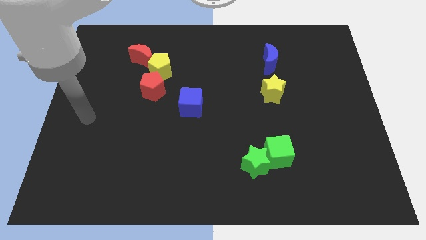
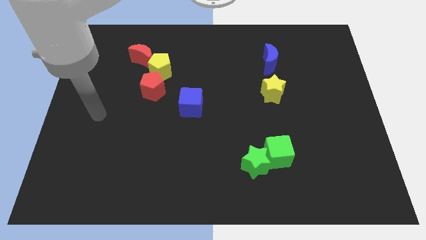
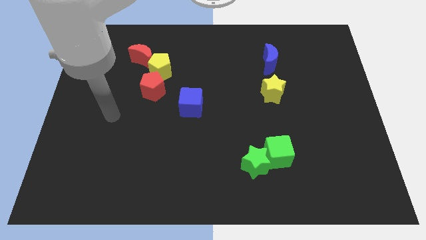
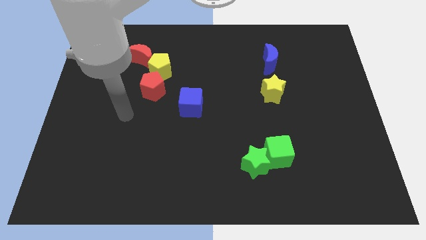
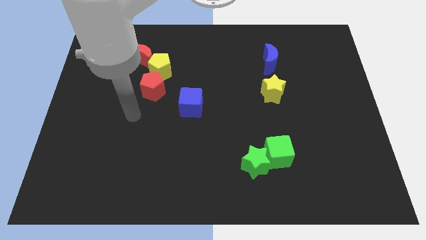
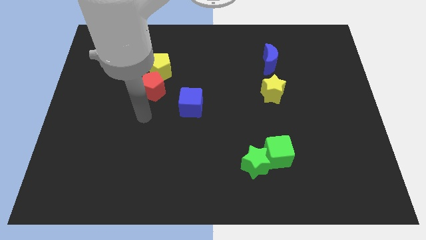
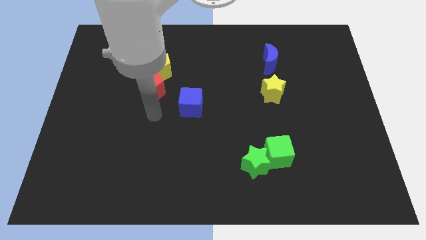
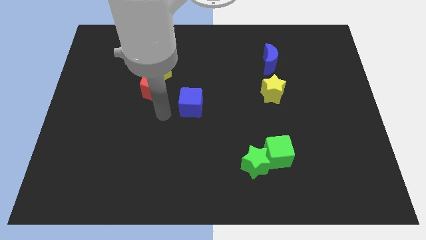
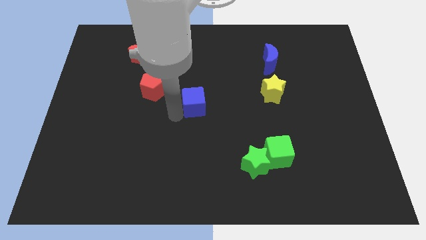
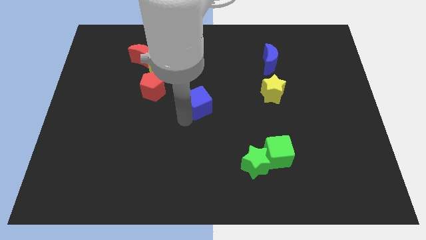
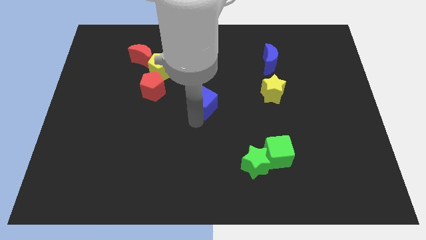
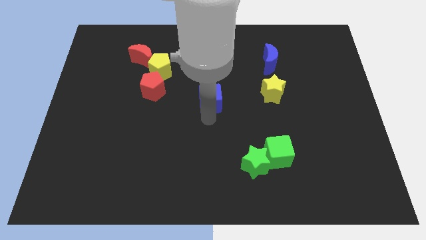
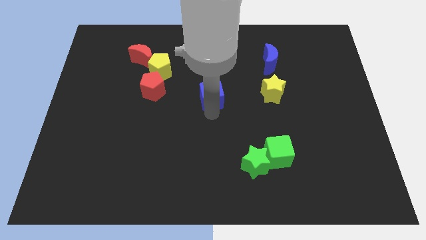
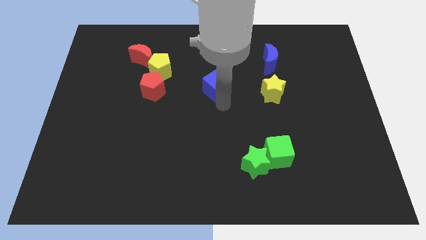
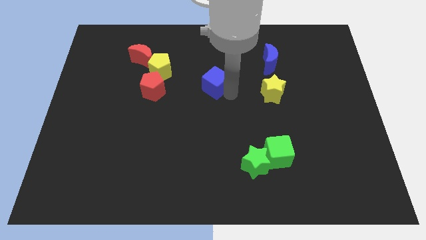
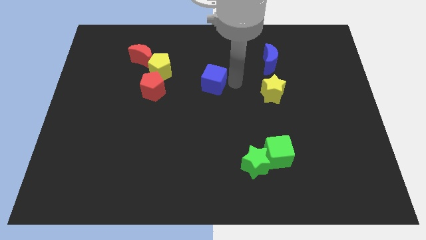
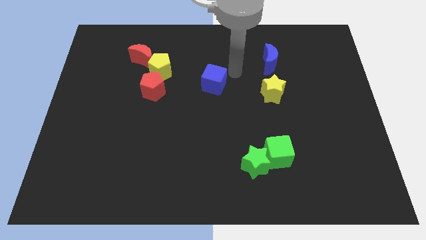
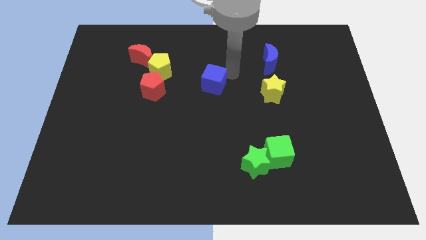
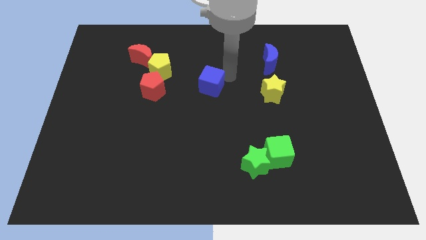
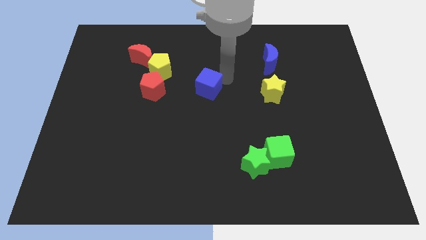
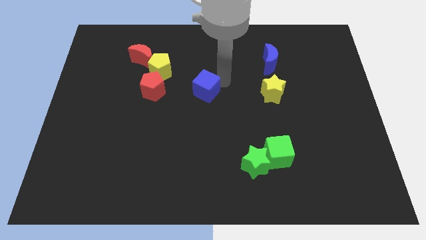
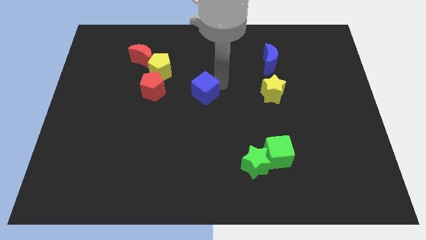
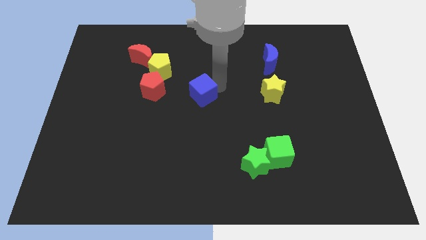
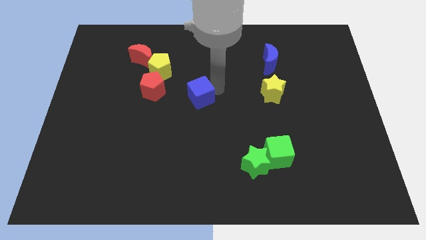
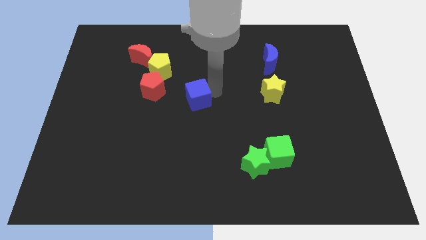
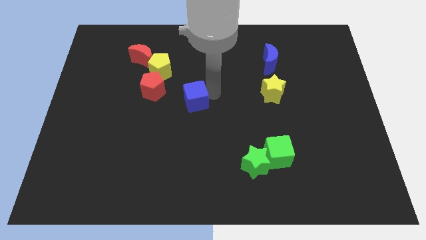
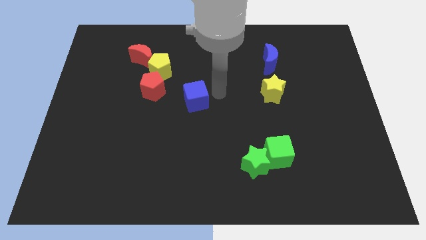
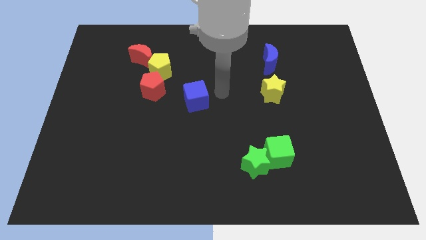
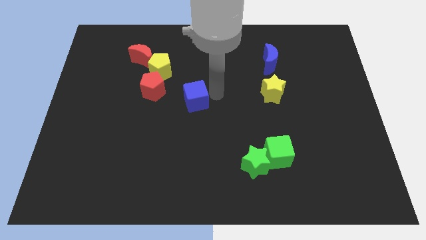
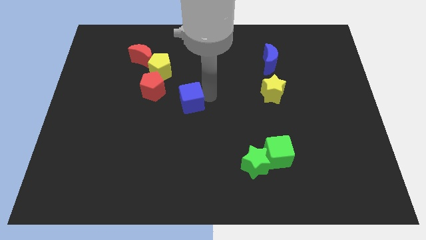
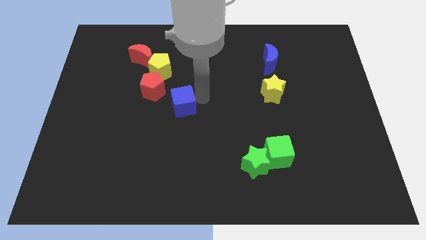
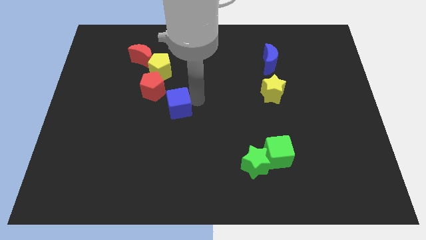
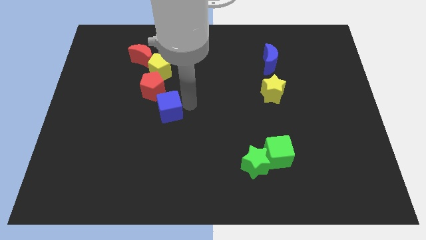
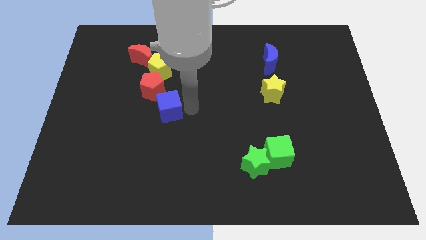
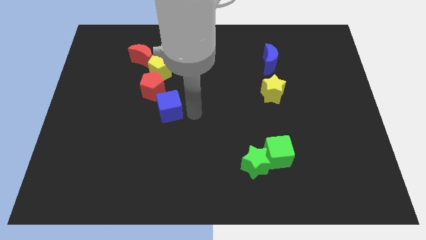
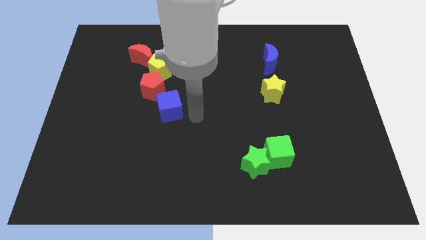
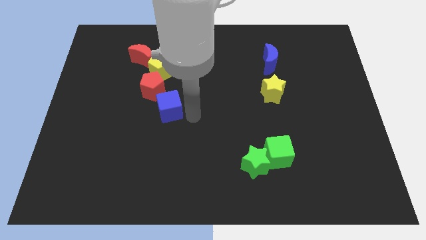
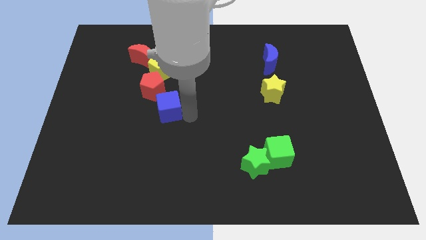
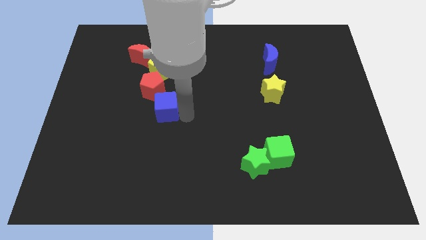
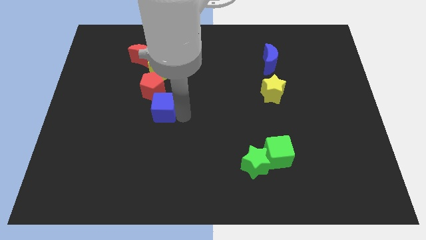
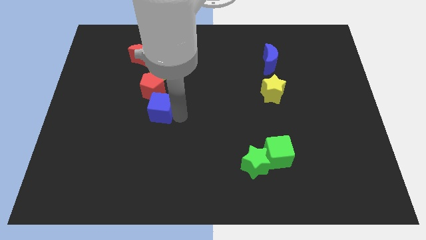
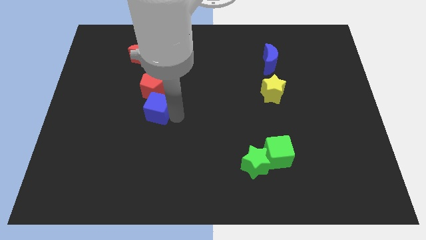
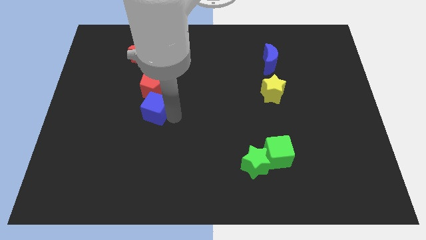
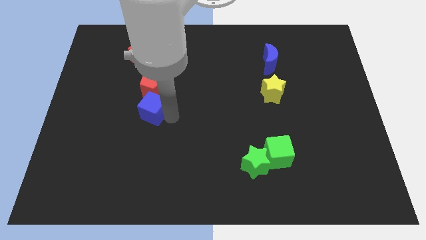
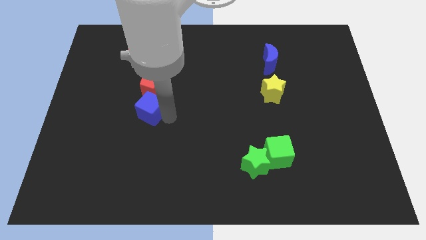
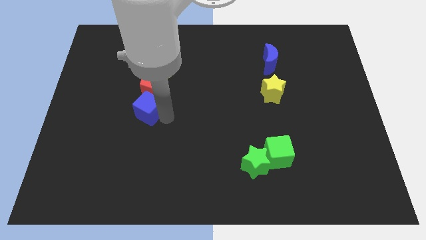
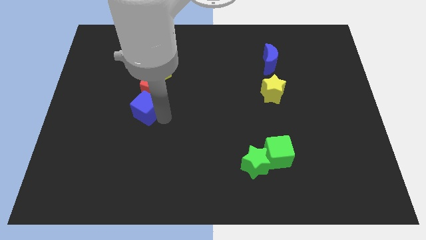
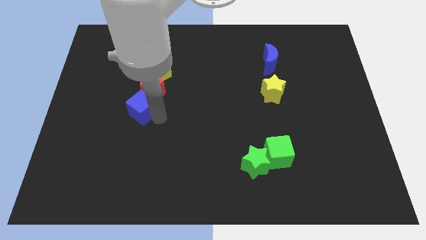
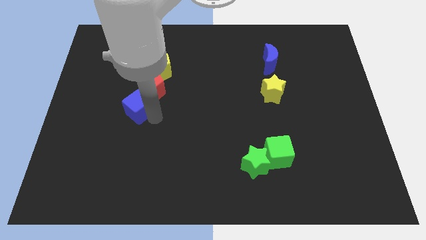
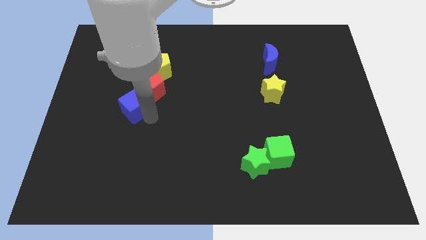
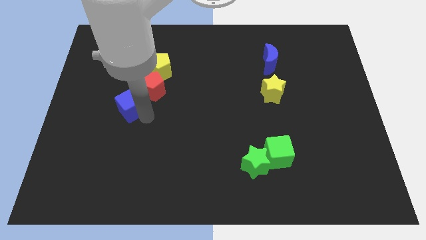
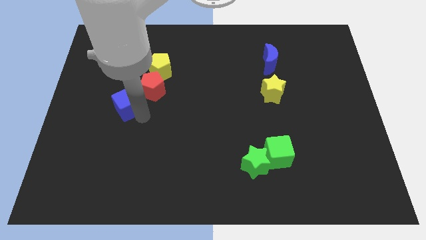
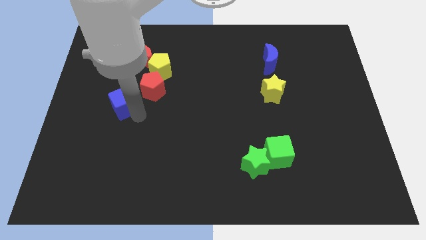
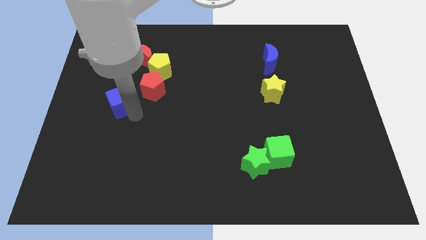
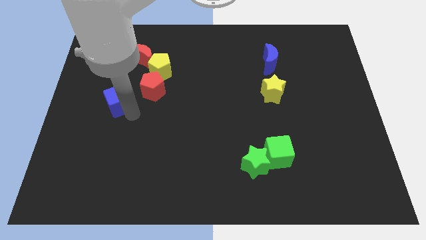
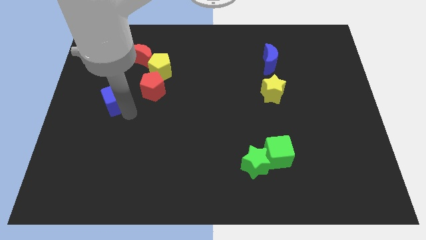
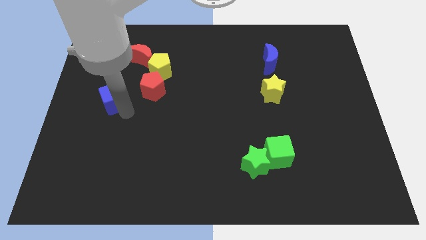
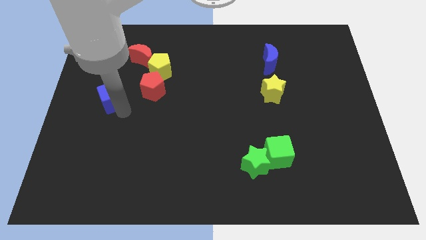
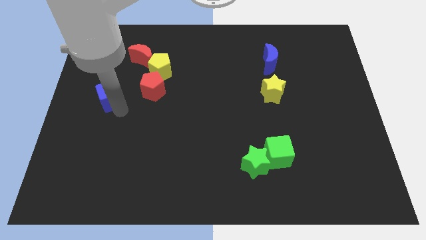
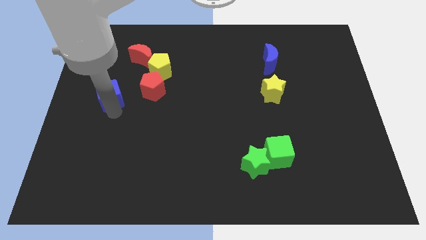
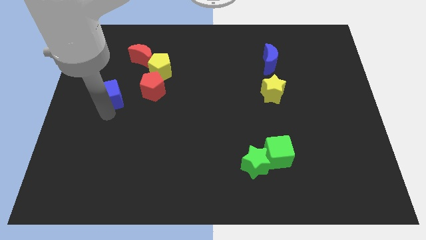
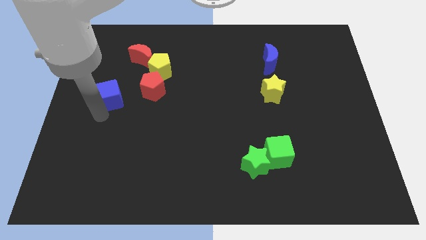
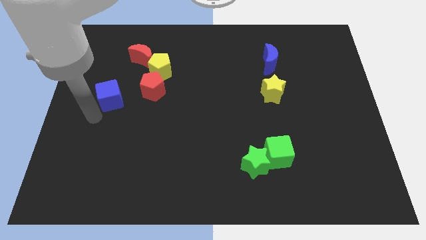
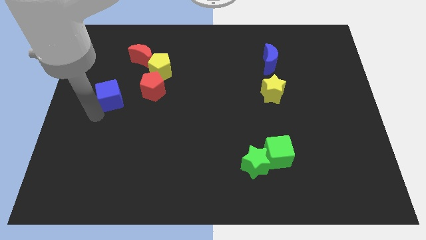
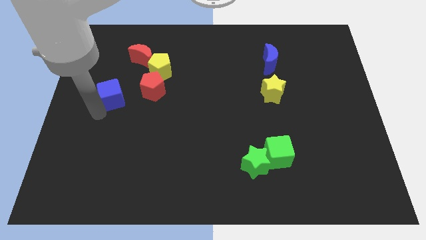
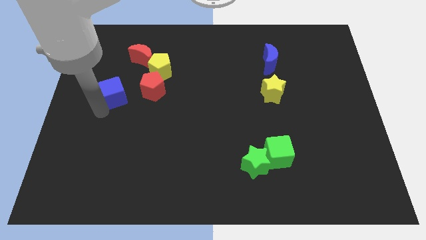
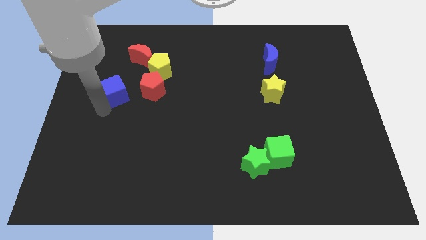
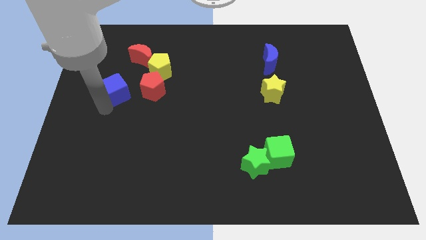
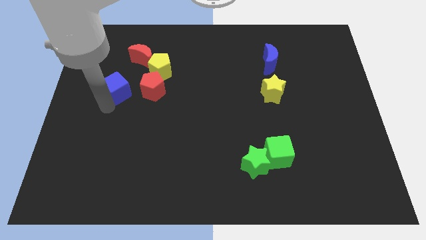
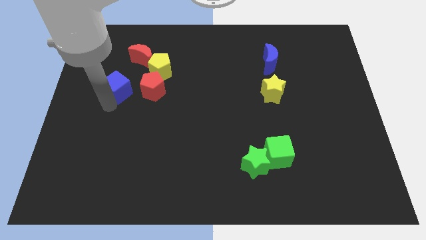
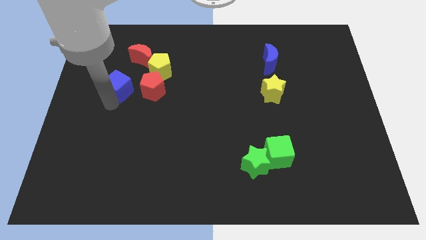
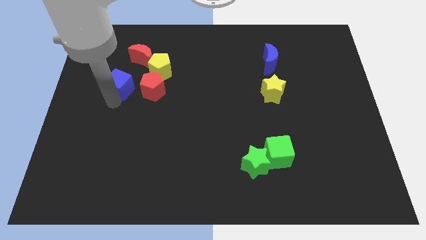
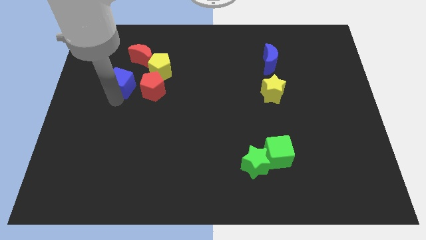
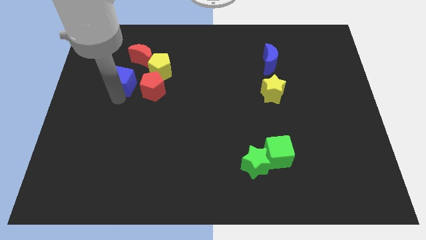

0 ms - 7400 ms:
push the blue cube to the left of the yellow pentagon
